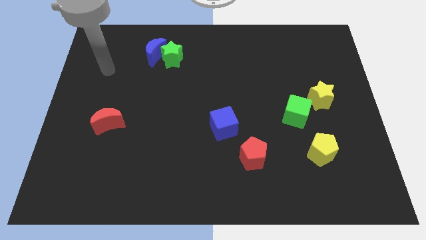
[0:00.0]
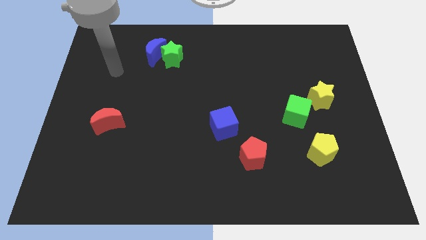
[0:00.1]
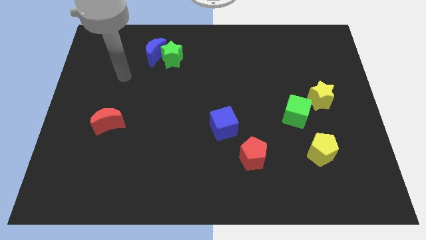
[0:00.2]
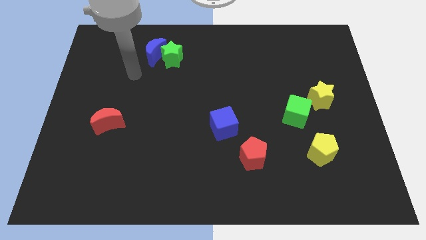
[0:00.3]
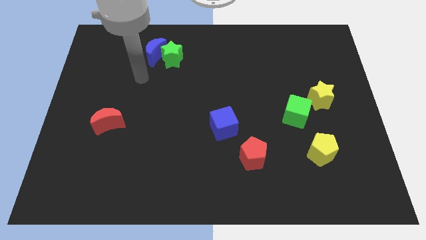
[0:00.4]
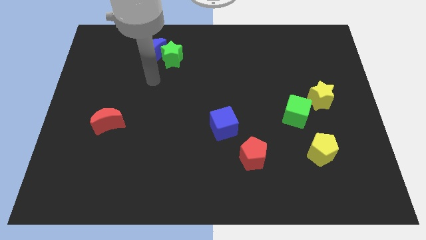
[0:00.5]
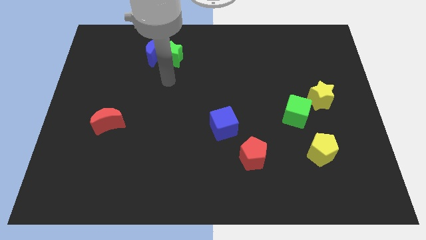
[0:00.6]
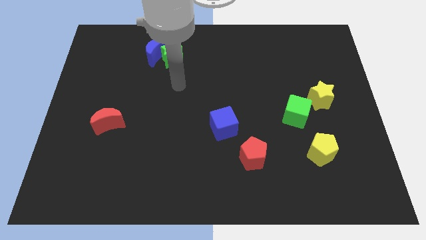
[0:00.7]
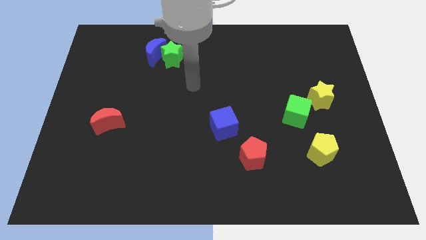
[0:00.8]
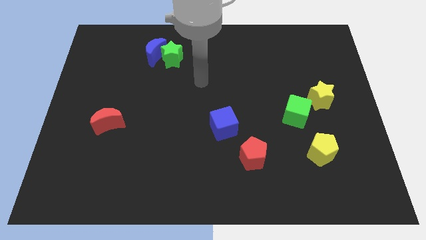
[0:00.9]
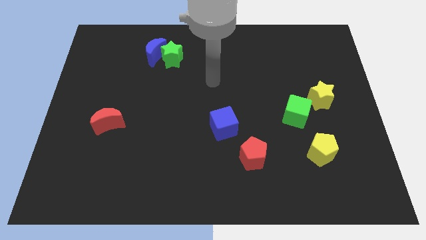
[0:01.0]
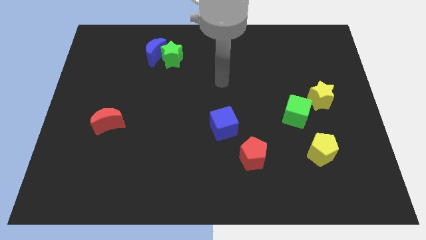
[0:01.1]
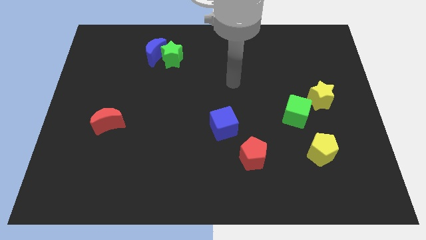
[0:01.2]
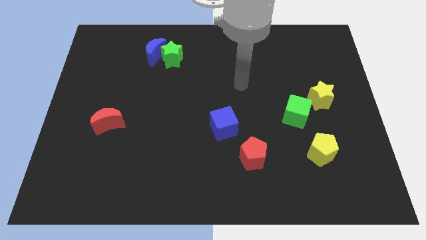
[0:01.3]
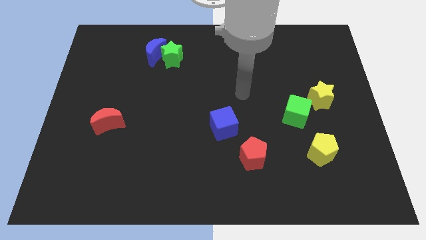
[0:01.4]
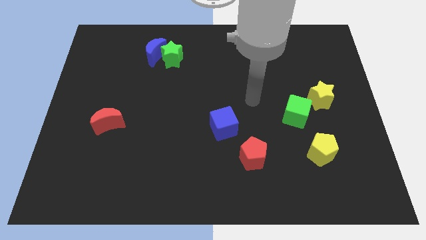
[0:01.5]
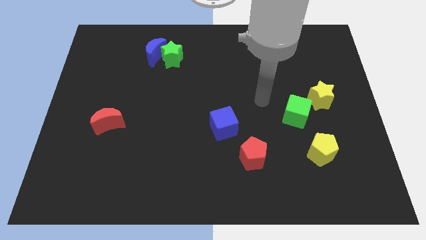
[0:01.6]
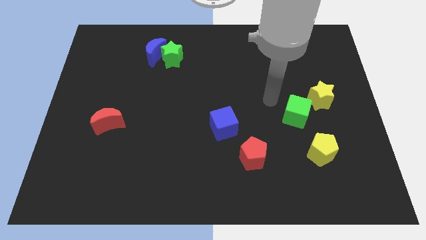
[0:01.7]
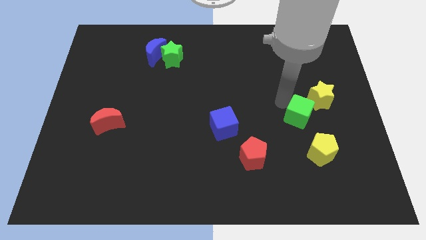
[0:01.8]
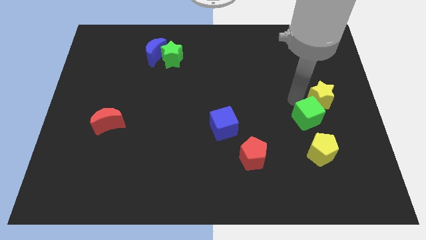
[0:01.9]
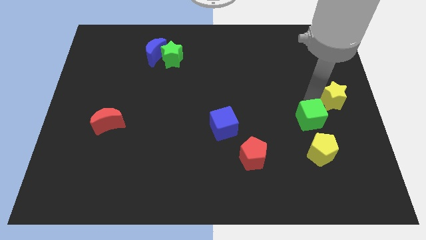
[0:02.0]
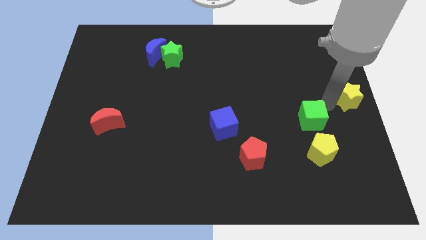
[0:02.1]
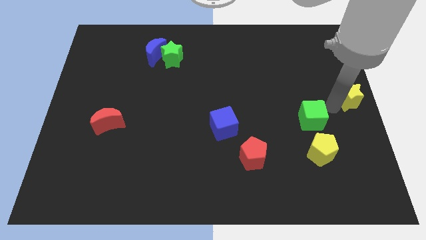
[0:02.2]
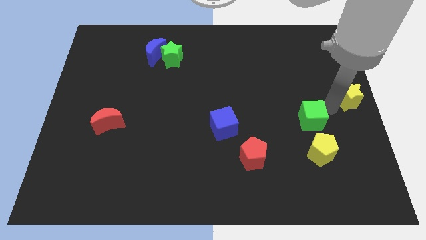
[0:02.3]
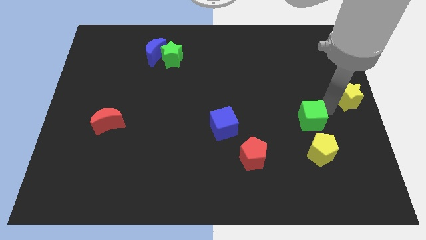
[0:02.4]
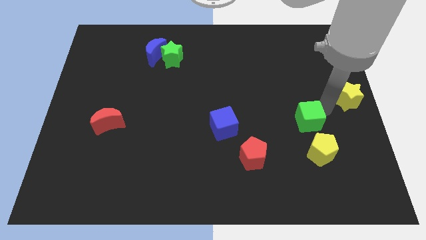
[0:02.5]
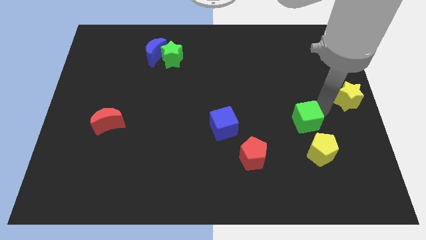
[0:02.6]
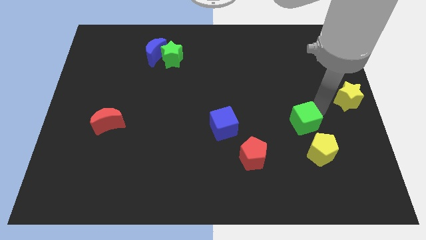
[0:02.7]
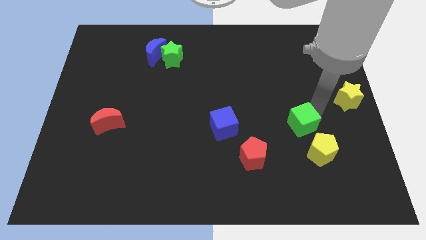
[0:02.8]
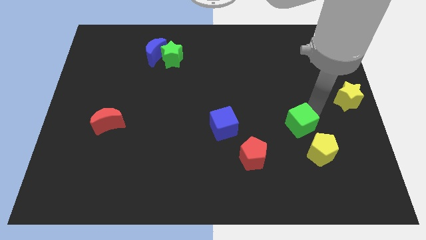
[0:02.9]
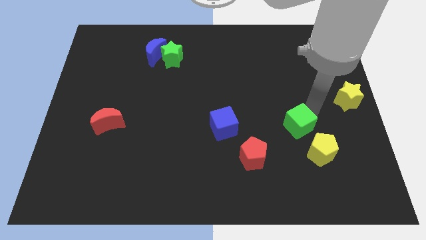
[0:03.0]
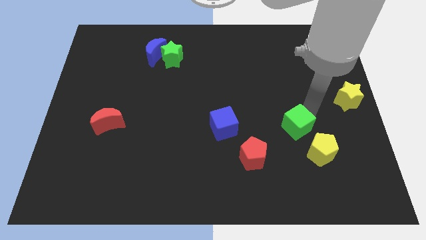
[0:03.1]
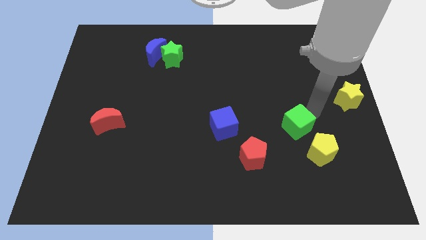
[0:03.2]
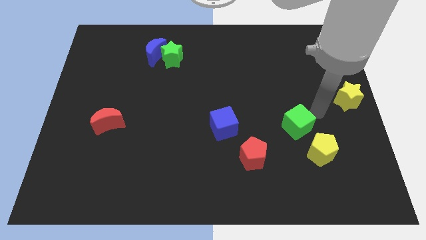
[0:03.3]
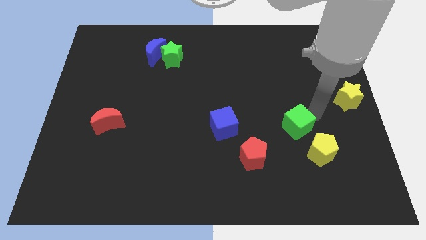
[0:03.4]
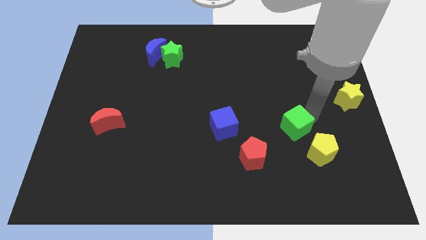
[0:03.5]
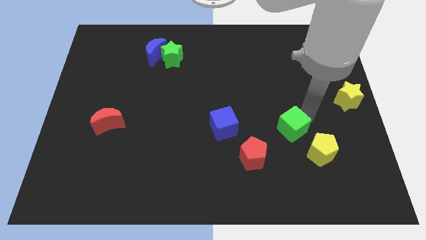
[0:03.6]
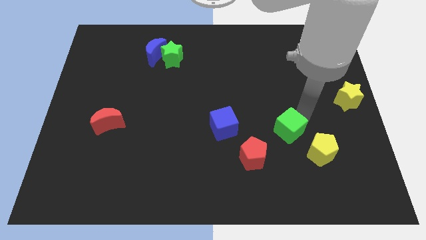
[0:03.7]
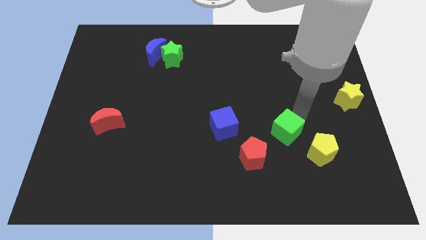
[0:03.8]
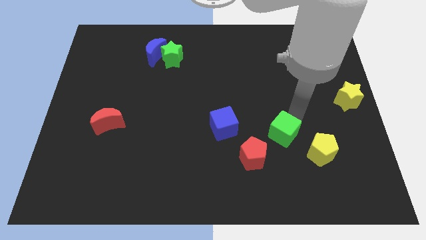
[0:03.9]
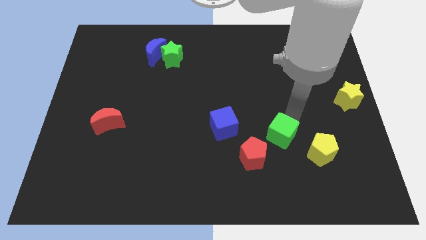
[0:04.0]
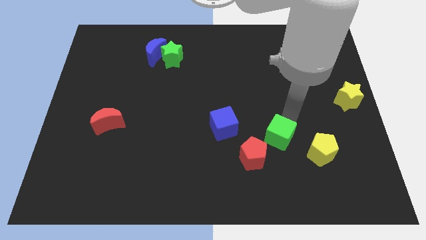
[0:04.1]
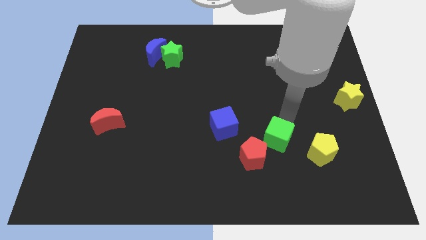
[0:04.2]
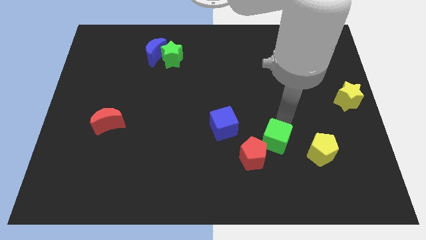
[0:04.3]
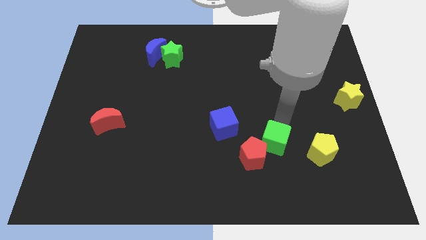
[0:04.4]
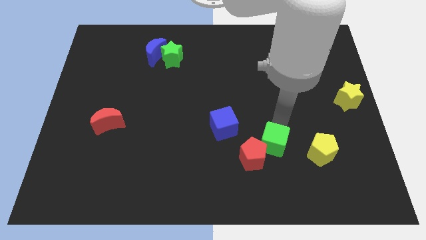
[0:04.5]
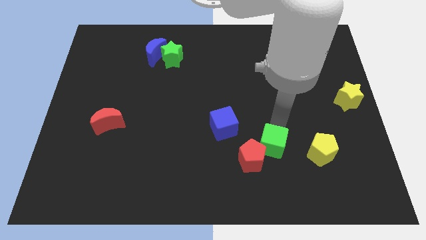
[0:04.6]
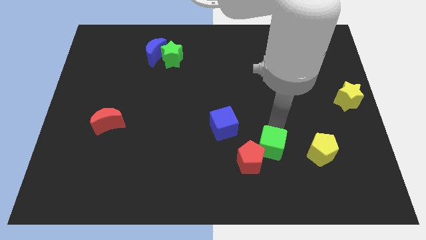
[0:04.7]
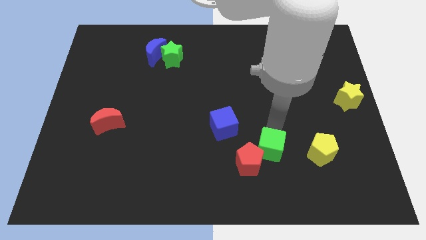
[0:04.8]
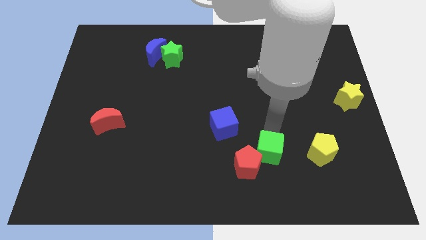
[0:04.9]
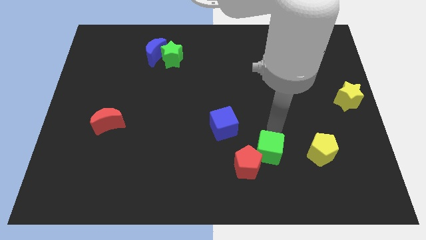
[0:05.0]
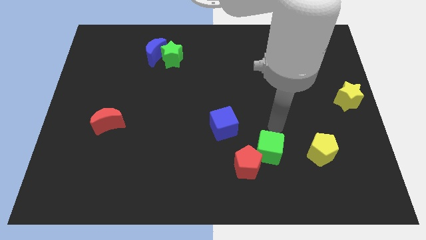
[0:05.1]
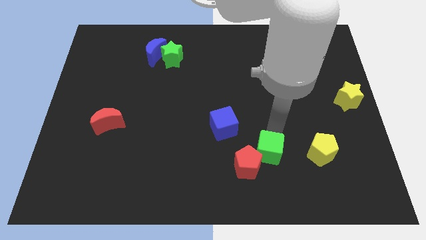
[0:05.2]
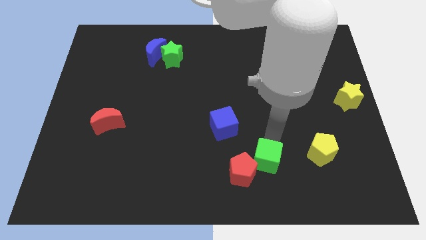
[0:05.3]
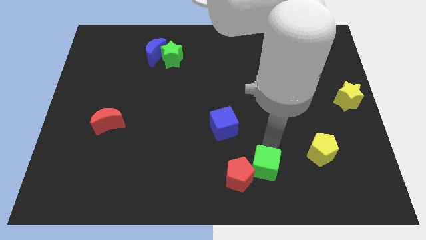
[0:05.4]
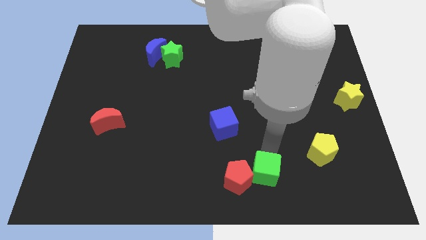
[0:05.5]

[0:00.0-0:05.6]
move the green cube to the bottom side

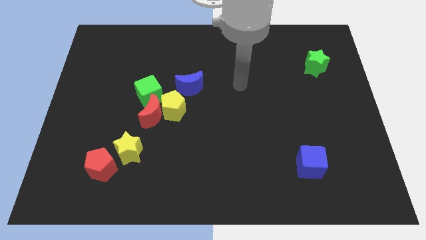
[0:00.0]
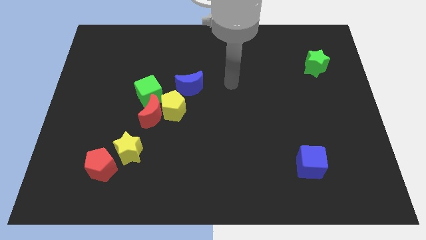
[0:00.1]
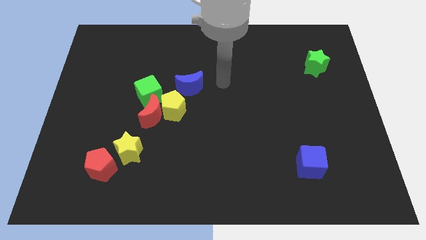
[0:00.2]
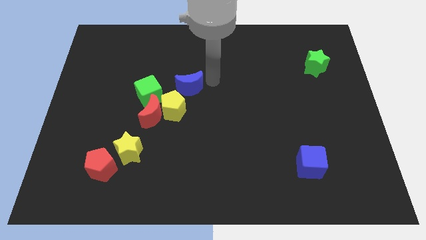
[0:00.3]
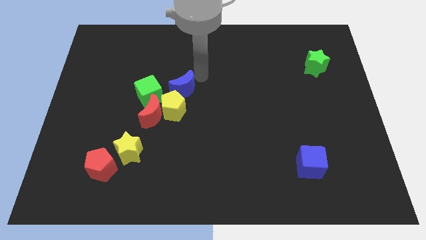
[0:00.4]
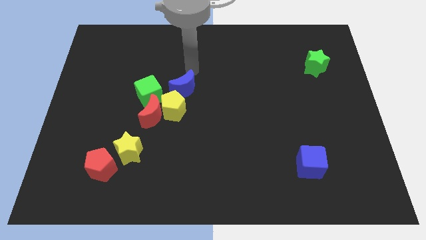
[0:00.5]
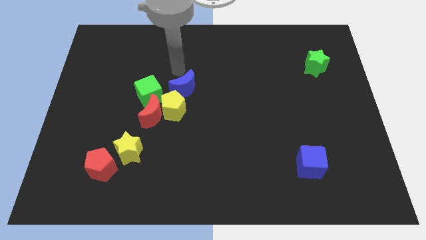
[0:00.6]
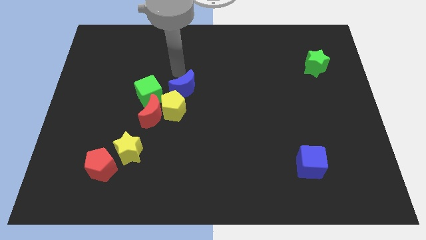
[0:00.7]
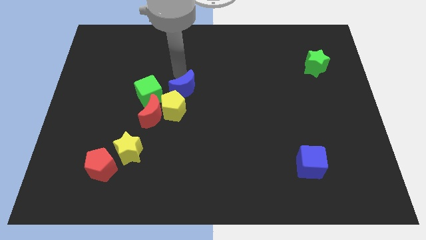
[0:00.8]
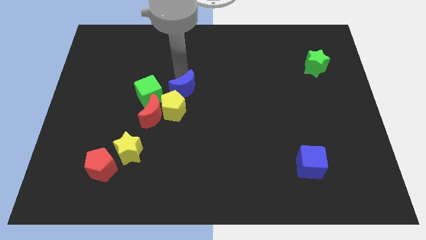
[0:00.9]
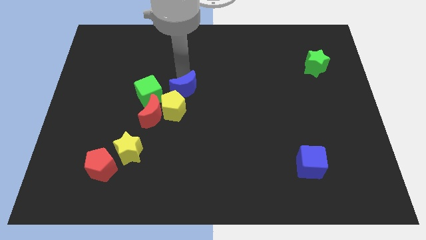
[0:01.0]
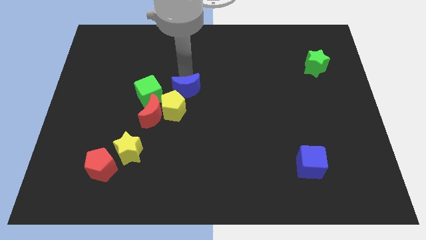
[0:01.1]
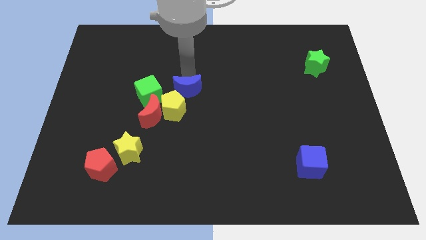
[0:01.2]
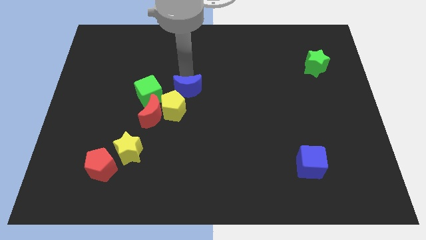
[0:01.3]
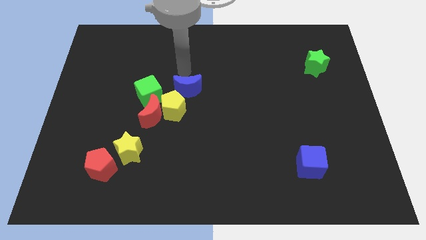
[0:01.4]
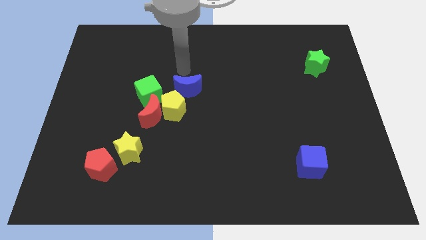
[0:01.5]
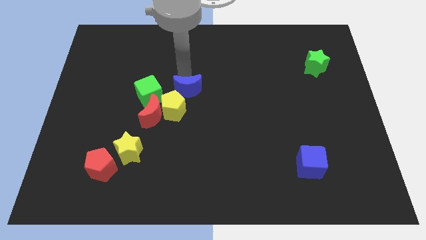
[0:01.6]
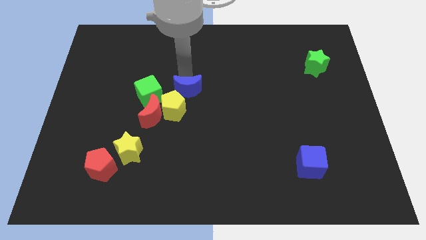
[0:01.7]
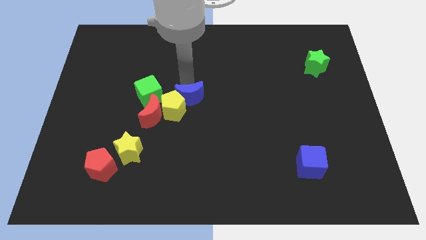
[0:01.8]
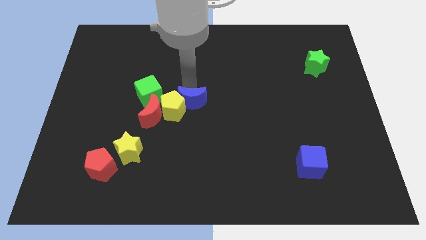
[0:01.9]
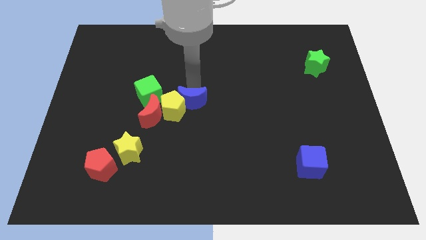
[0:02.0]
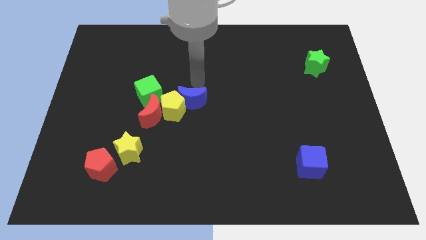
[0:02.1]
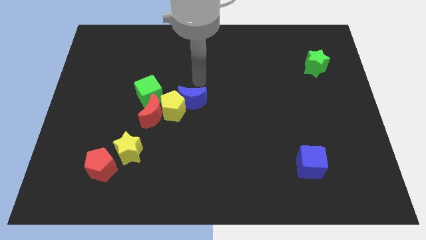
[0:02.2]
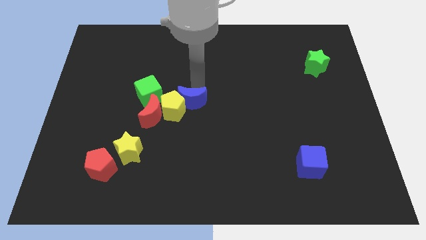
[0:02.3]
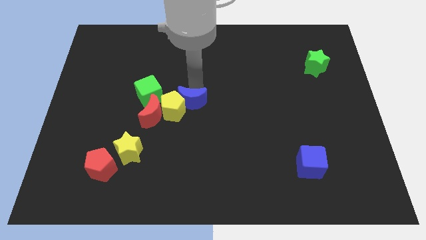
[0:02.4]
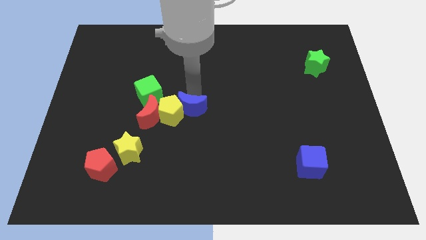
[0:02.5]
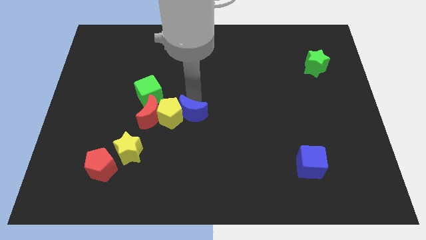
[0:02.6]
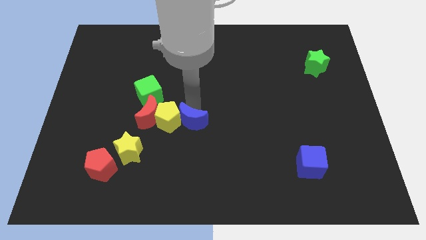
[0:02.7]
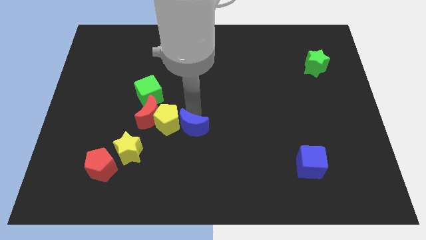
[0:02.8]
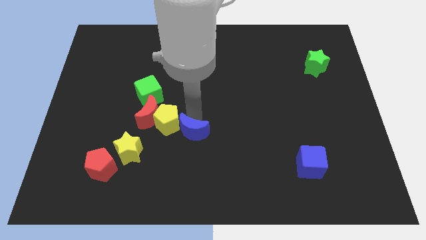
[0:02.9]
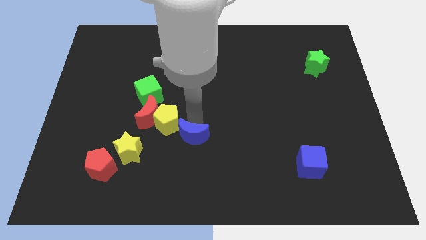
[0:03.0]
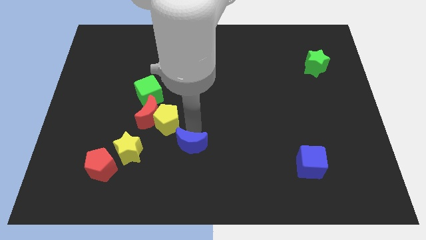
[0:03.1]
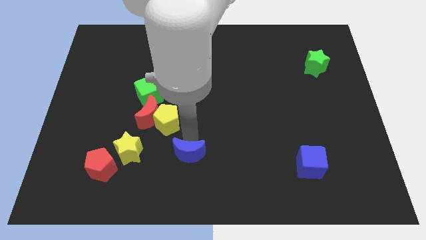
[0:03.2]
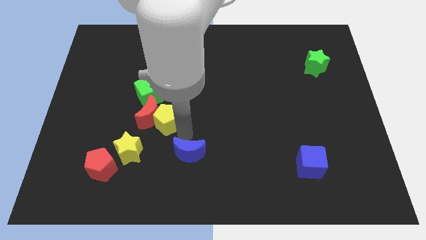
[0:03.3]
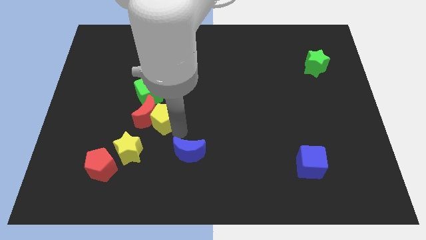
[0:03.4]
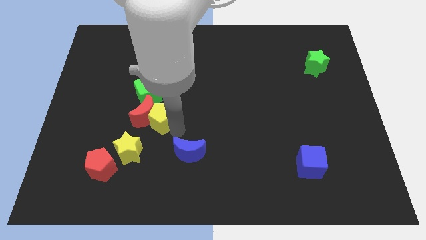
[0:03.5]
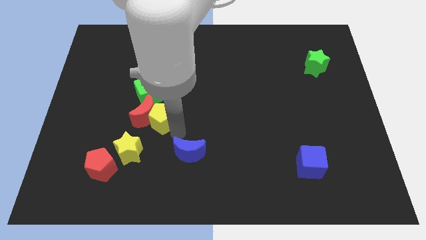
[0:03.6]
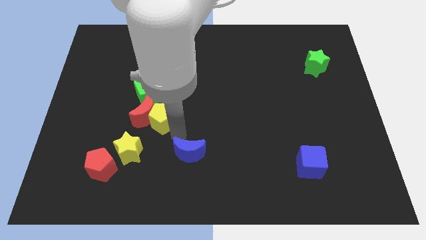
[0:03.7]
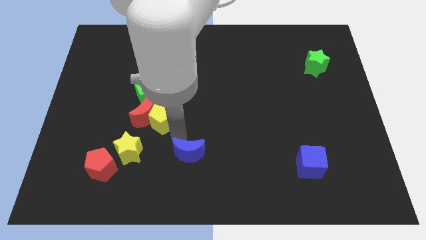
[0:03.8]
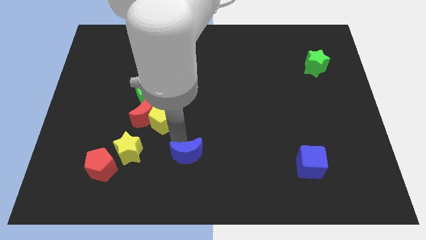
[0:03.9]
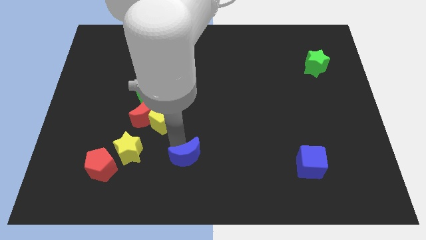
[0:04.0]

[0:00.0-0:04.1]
move the blue moon to the bottom side
